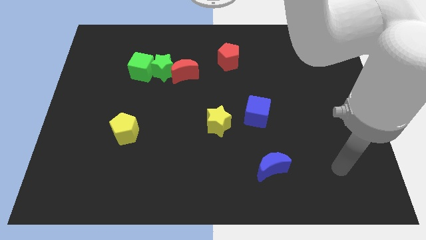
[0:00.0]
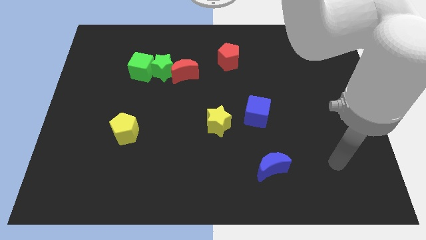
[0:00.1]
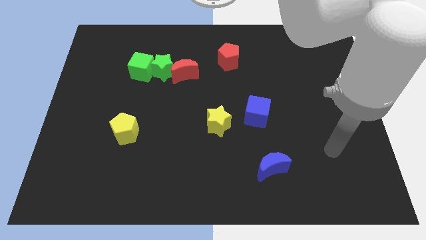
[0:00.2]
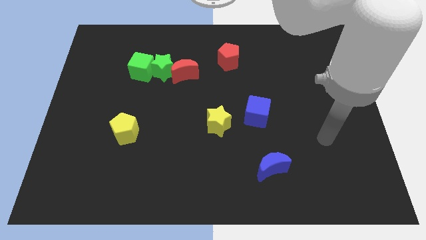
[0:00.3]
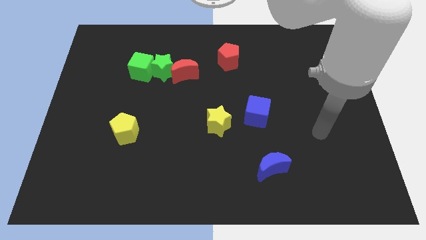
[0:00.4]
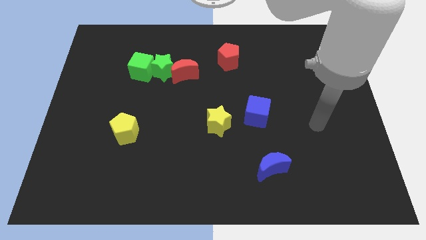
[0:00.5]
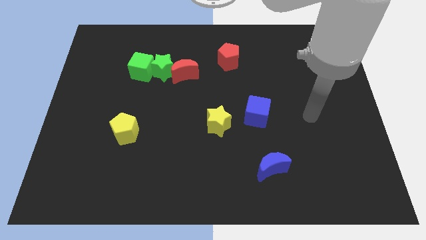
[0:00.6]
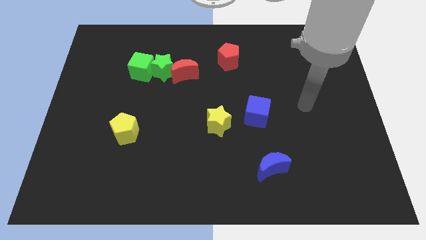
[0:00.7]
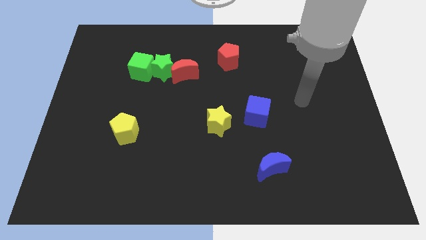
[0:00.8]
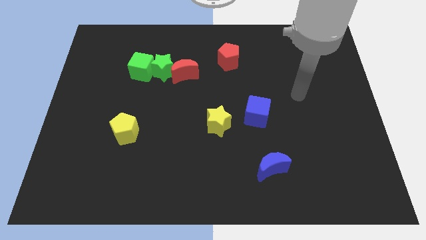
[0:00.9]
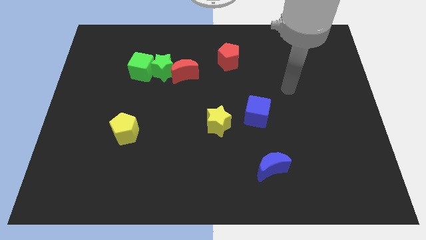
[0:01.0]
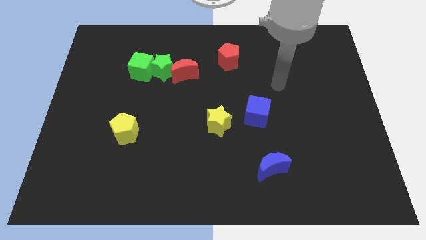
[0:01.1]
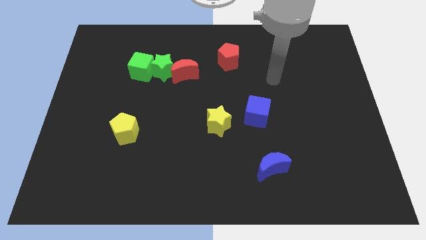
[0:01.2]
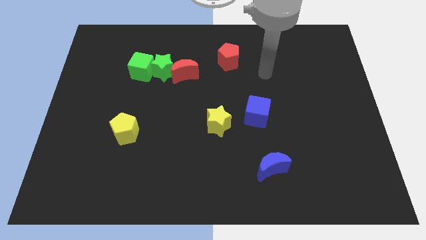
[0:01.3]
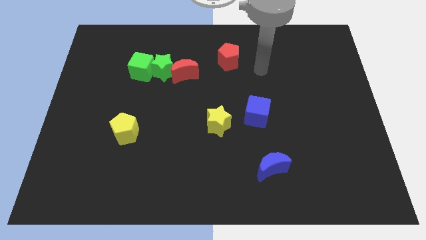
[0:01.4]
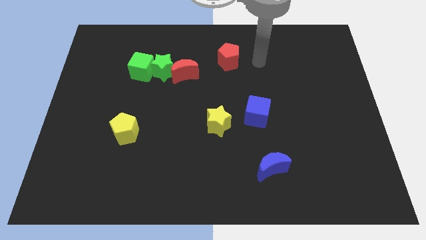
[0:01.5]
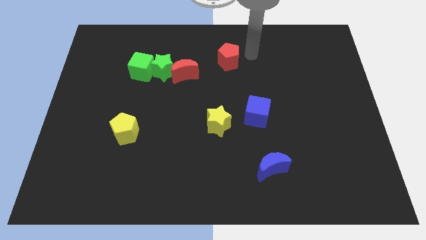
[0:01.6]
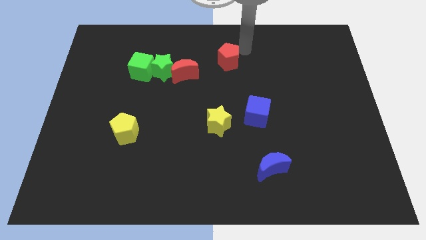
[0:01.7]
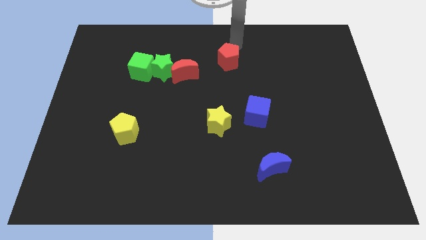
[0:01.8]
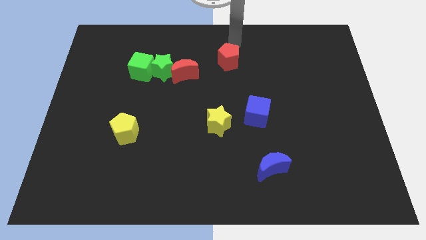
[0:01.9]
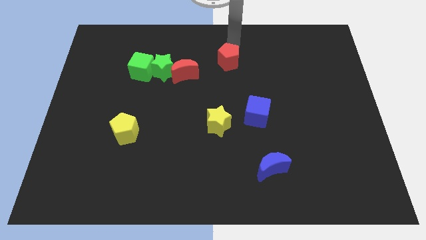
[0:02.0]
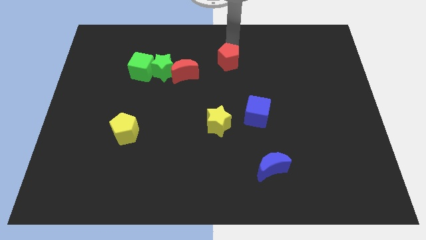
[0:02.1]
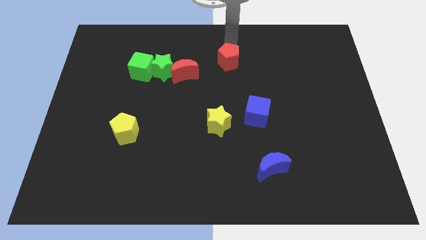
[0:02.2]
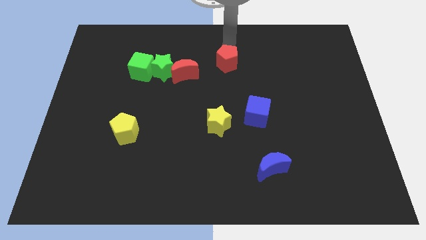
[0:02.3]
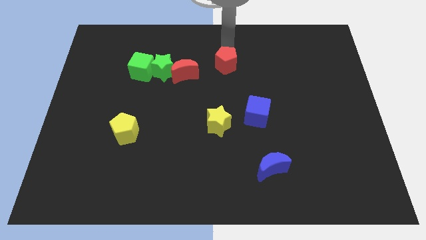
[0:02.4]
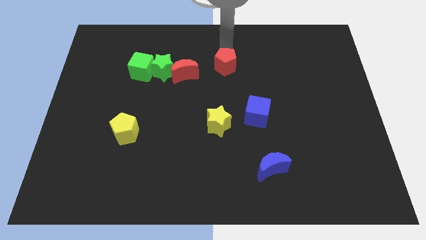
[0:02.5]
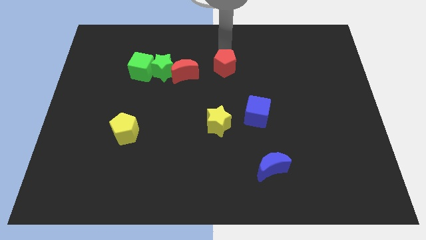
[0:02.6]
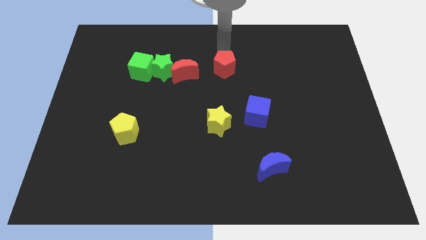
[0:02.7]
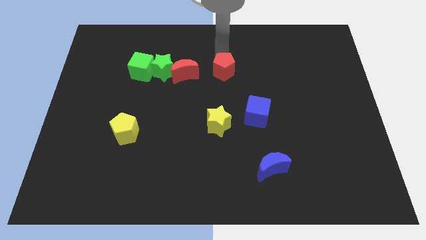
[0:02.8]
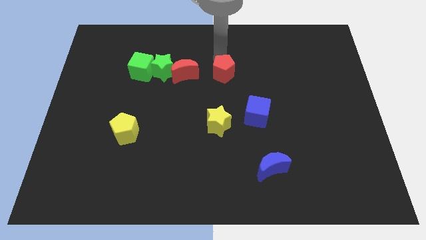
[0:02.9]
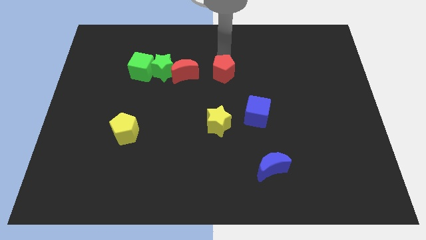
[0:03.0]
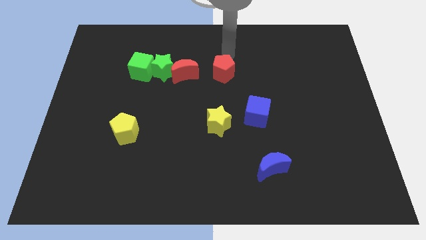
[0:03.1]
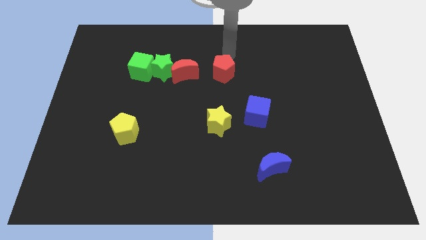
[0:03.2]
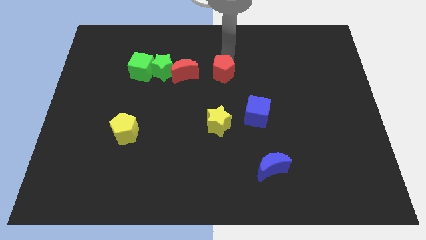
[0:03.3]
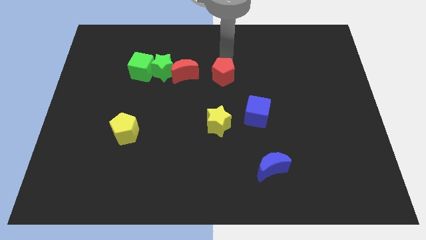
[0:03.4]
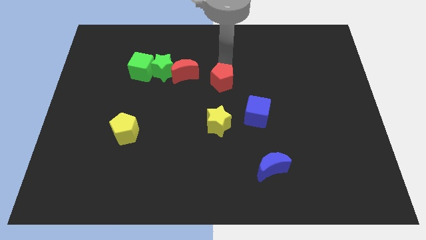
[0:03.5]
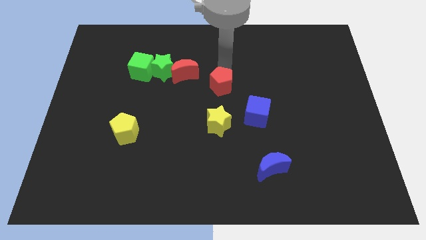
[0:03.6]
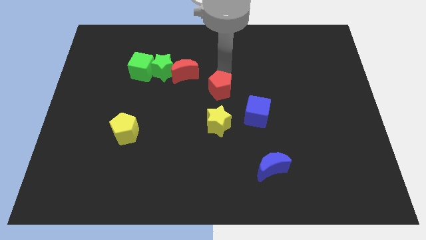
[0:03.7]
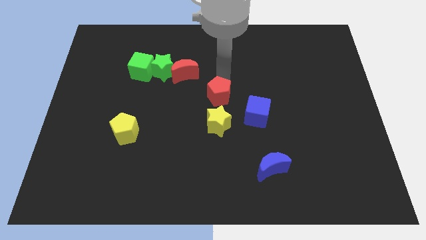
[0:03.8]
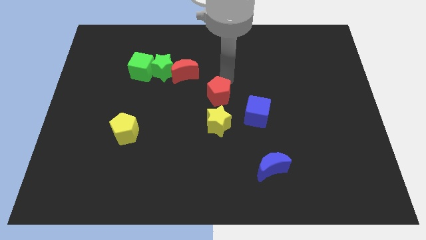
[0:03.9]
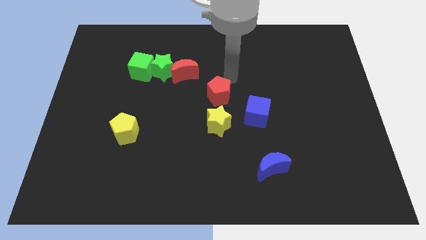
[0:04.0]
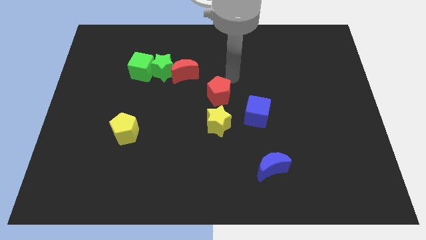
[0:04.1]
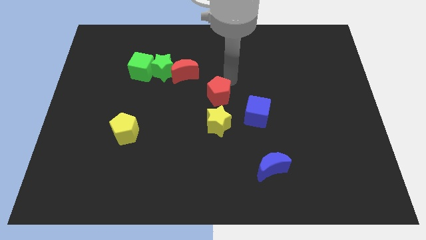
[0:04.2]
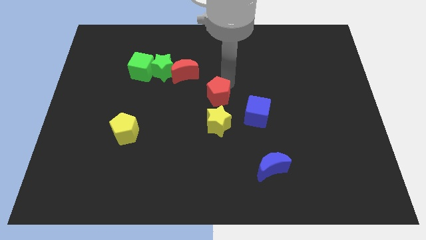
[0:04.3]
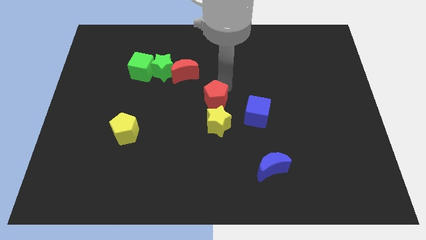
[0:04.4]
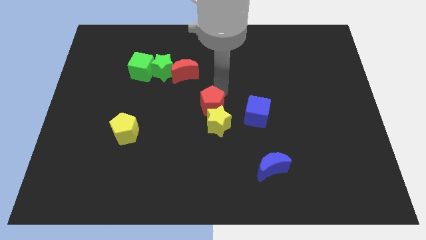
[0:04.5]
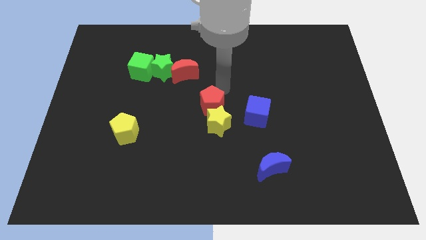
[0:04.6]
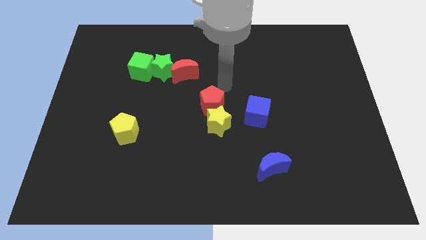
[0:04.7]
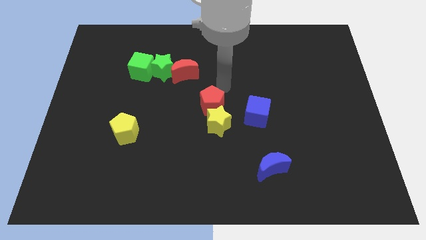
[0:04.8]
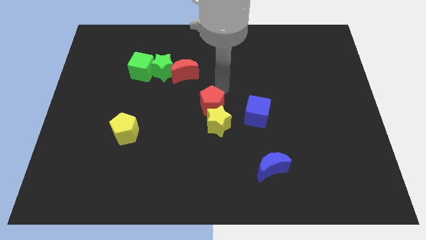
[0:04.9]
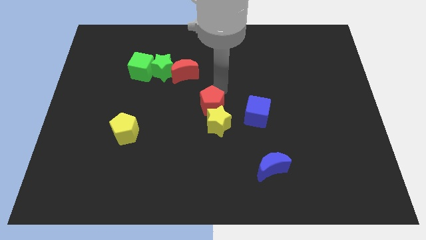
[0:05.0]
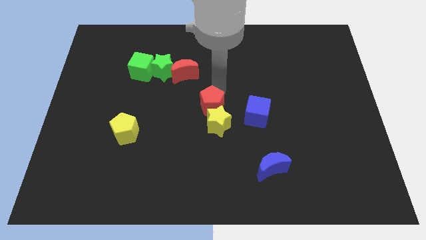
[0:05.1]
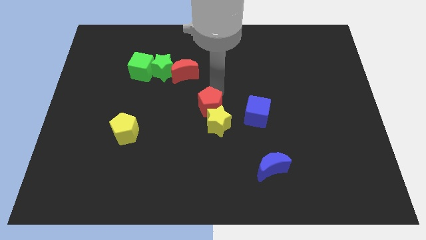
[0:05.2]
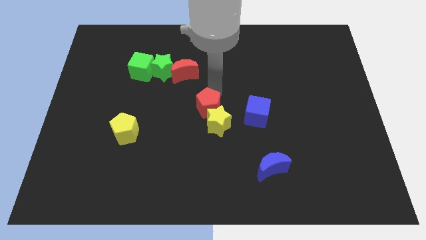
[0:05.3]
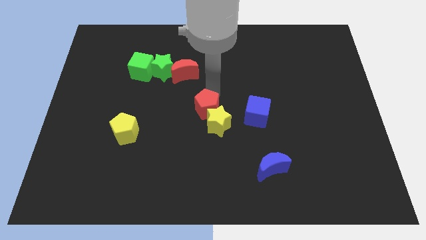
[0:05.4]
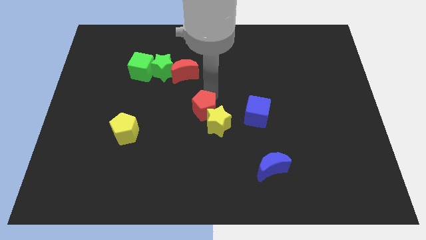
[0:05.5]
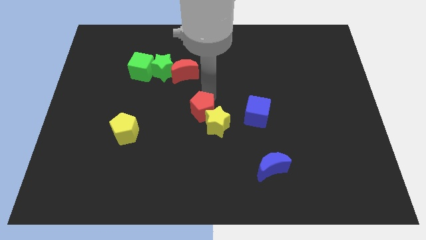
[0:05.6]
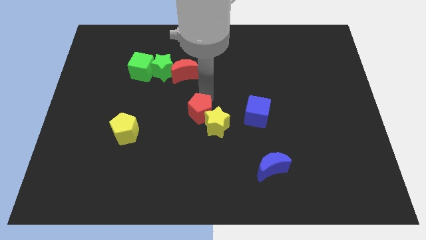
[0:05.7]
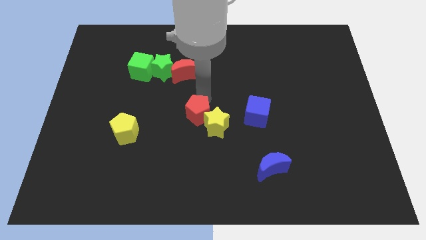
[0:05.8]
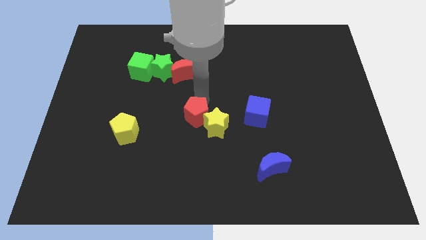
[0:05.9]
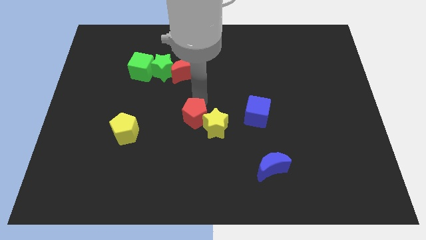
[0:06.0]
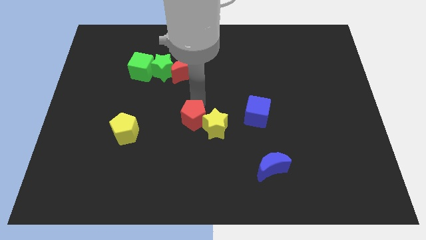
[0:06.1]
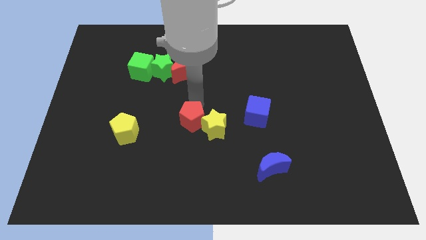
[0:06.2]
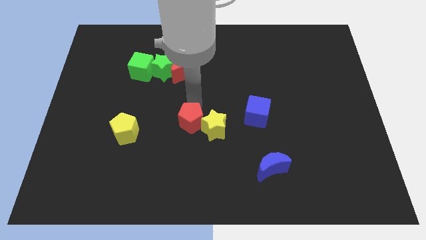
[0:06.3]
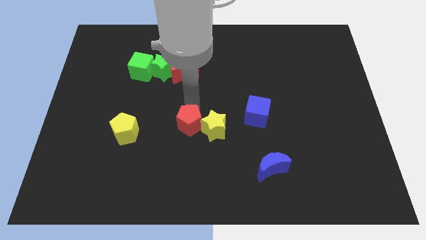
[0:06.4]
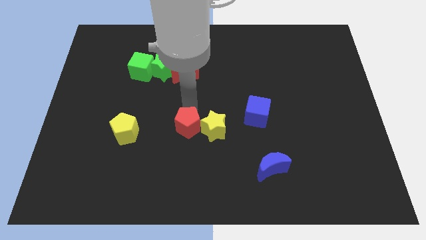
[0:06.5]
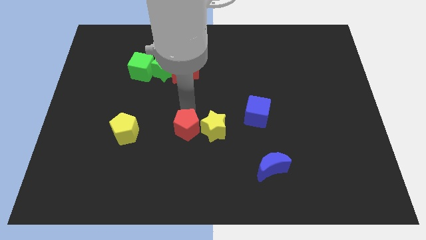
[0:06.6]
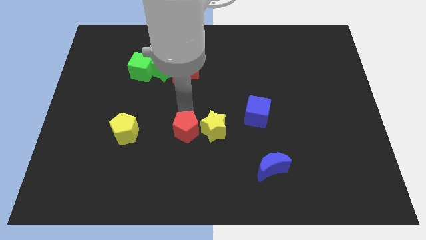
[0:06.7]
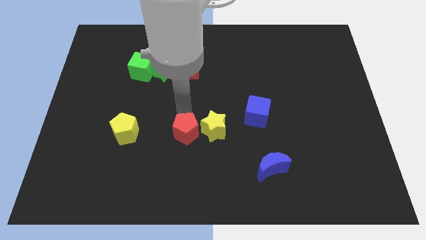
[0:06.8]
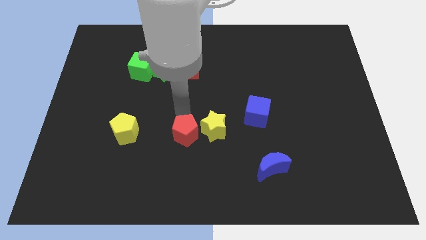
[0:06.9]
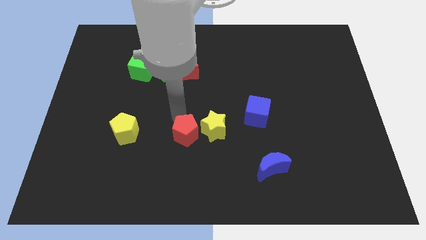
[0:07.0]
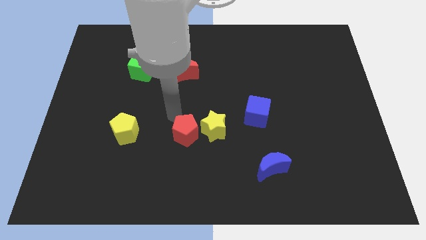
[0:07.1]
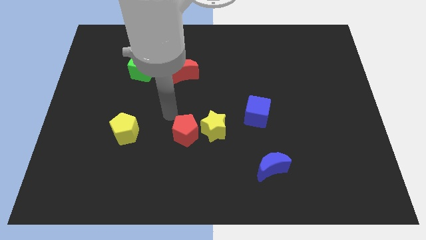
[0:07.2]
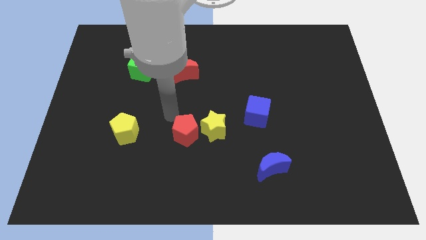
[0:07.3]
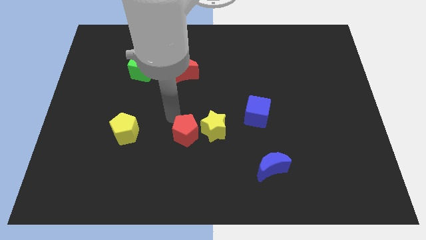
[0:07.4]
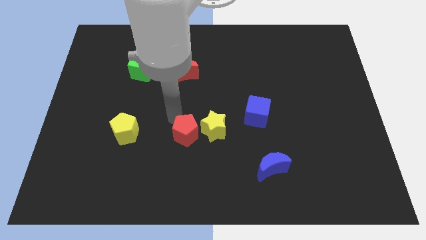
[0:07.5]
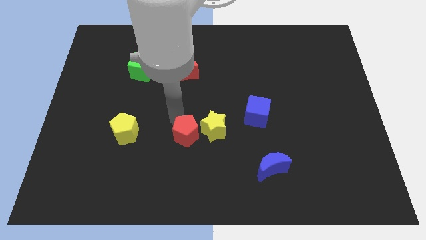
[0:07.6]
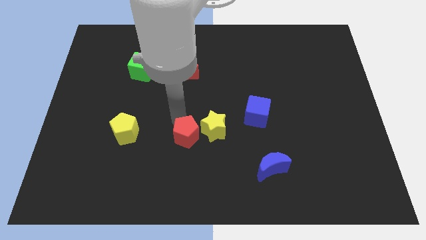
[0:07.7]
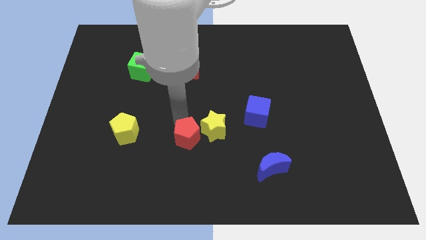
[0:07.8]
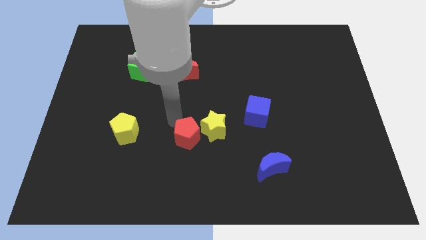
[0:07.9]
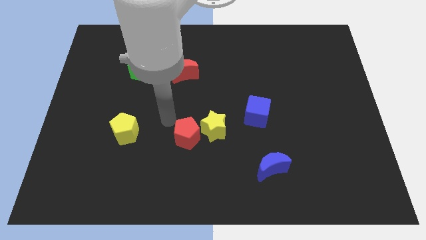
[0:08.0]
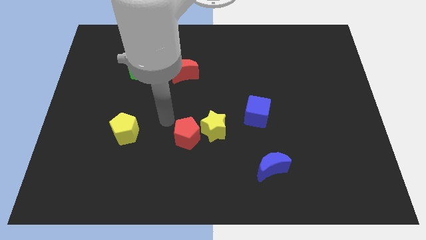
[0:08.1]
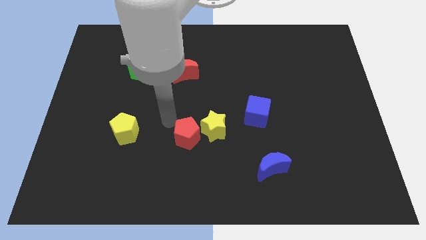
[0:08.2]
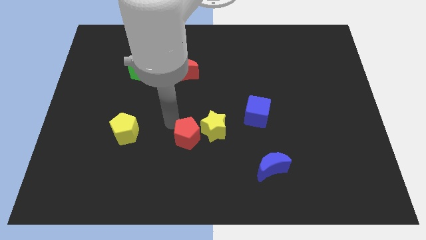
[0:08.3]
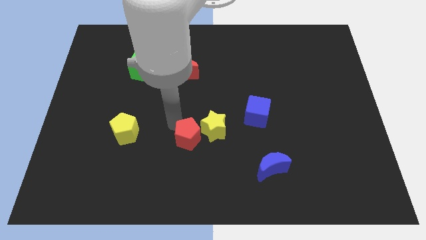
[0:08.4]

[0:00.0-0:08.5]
push the red pentagon downwards
